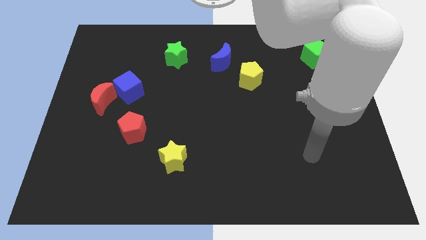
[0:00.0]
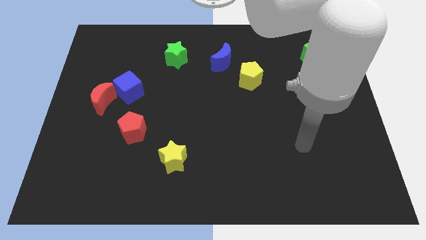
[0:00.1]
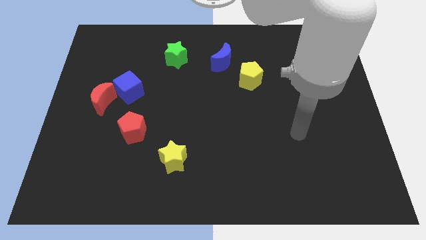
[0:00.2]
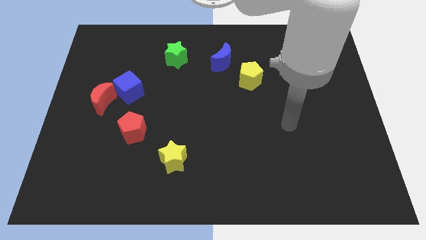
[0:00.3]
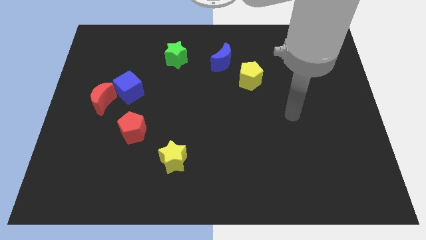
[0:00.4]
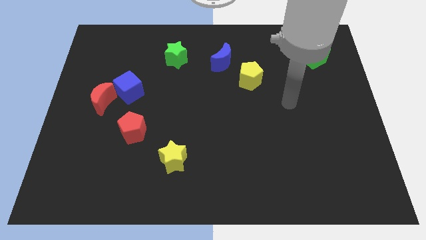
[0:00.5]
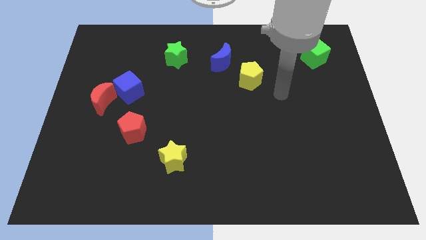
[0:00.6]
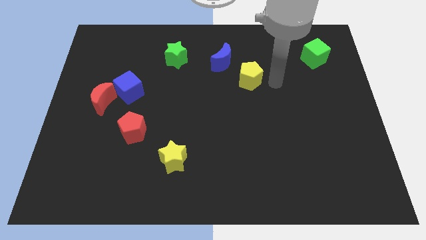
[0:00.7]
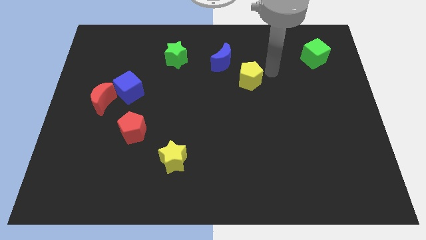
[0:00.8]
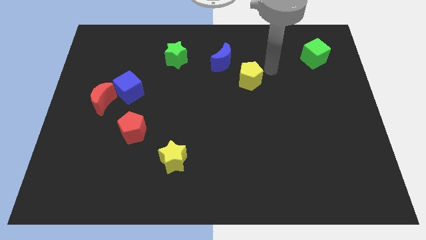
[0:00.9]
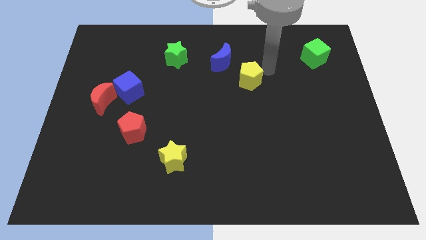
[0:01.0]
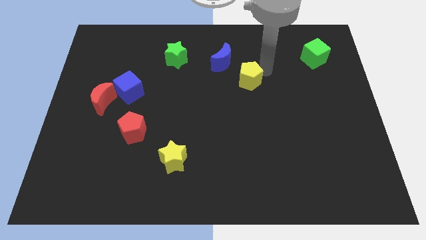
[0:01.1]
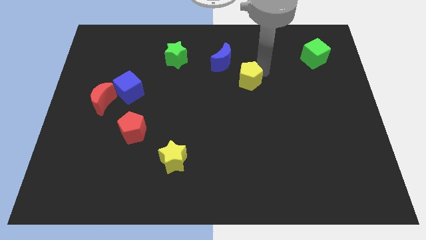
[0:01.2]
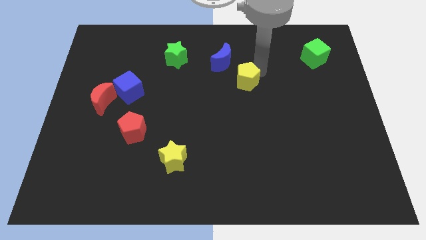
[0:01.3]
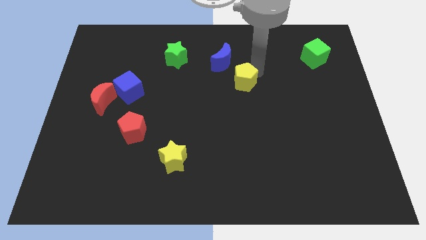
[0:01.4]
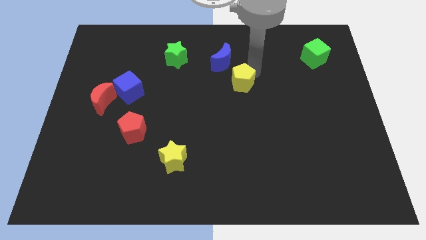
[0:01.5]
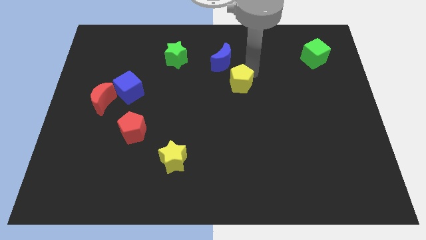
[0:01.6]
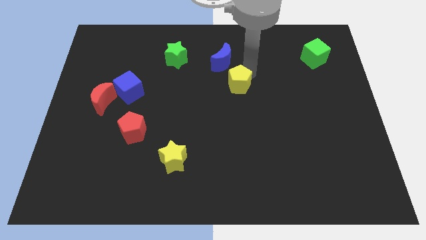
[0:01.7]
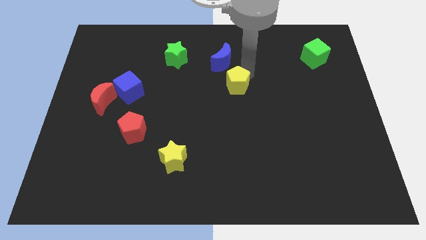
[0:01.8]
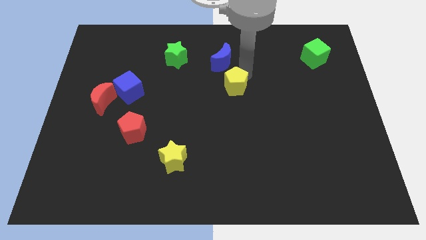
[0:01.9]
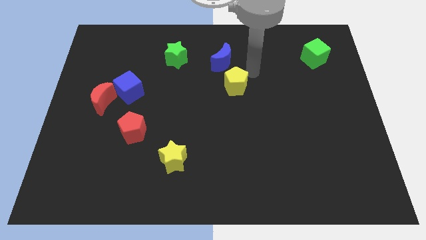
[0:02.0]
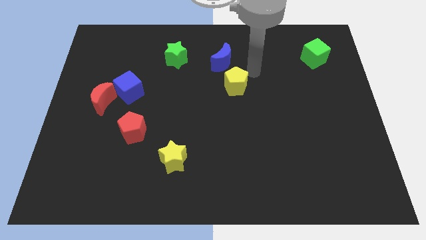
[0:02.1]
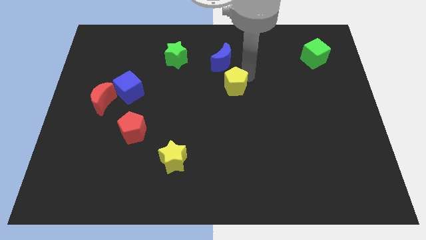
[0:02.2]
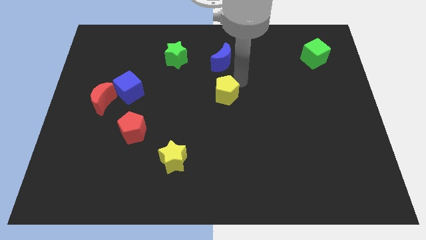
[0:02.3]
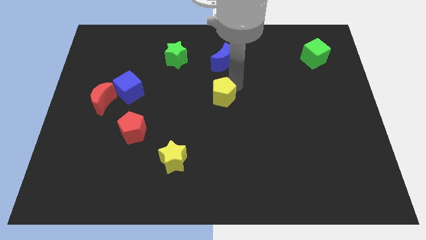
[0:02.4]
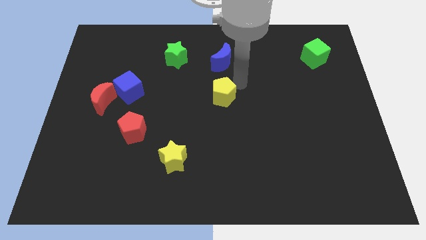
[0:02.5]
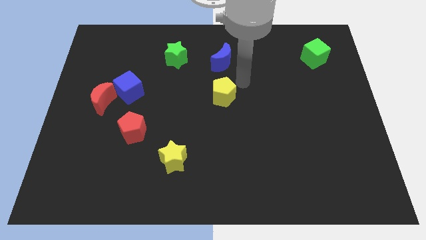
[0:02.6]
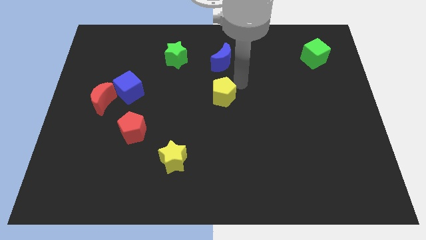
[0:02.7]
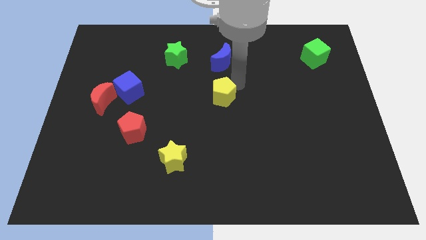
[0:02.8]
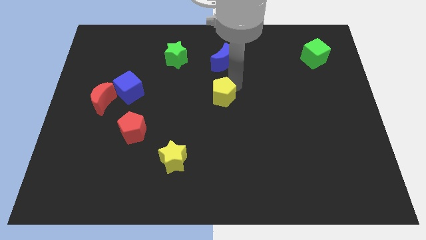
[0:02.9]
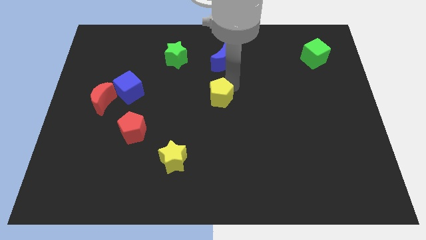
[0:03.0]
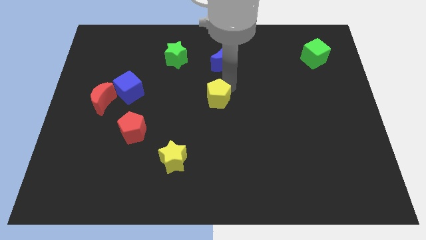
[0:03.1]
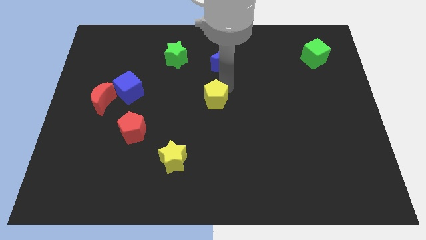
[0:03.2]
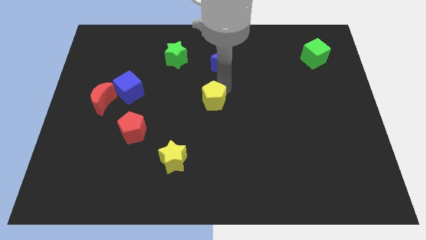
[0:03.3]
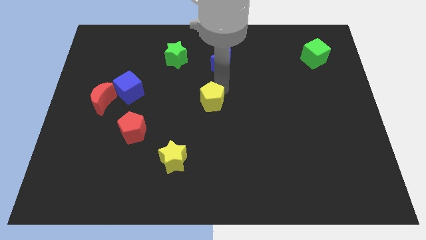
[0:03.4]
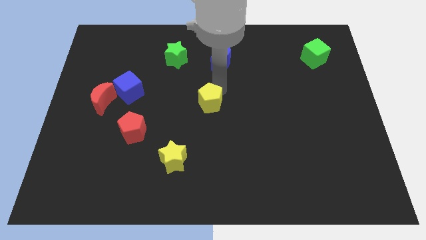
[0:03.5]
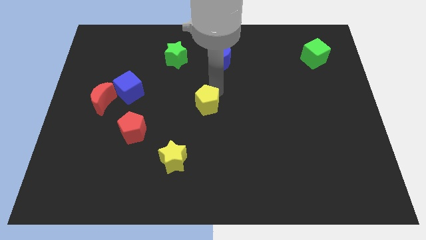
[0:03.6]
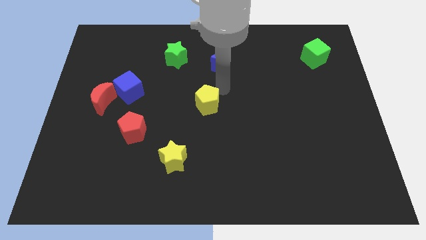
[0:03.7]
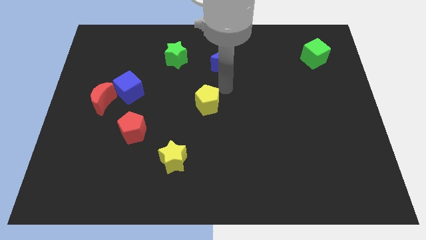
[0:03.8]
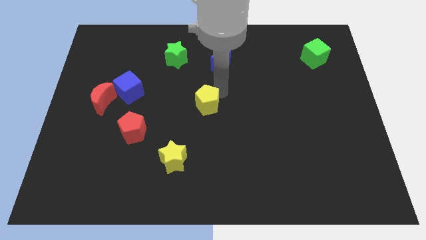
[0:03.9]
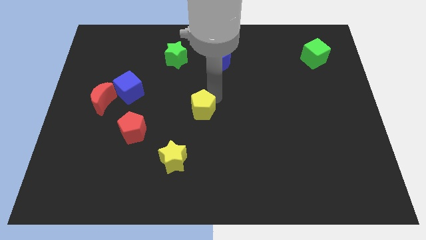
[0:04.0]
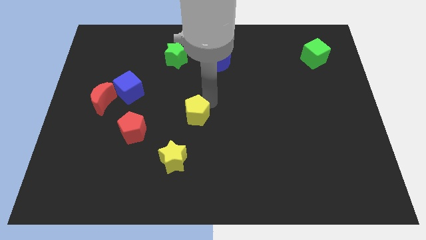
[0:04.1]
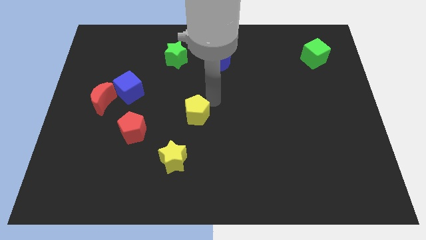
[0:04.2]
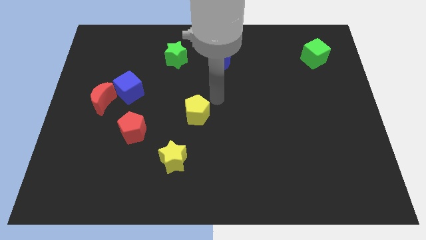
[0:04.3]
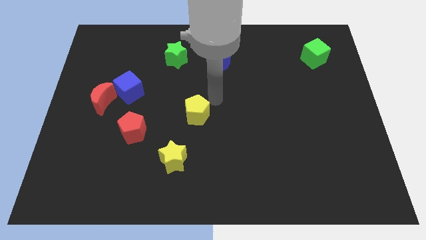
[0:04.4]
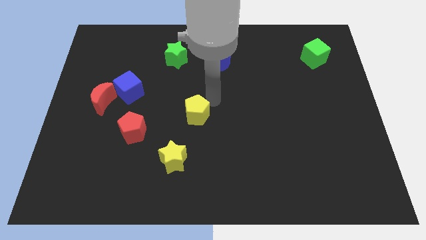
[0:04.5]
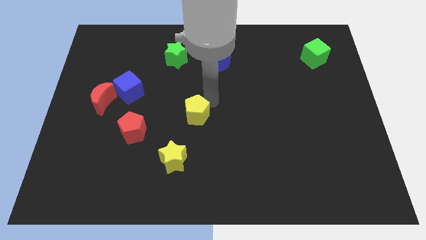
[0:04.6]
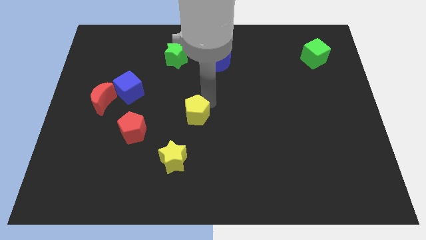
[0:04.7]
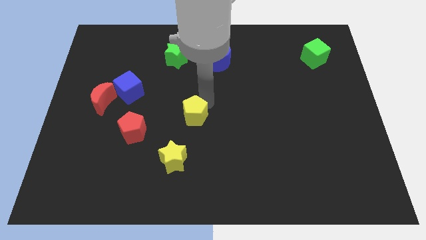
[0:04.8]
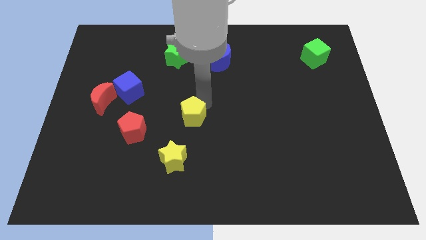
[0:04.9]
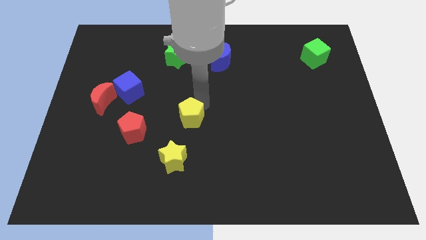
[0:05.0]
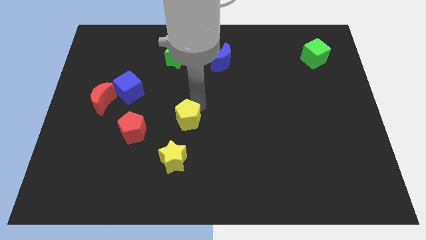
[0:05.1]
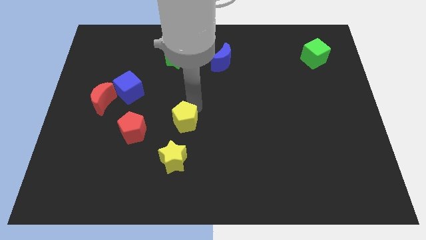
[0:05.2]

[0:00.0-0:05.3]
push the yellow pentagon diagonally down and to the left

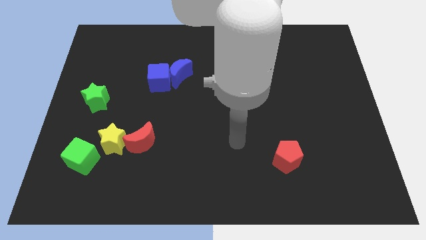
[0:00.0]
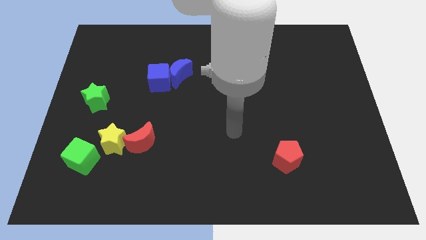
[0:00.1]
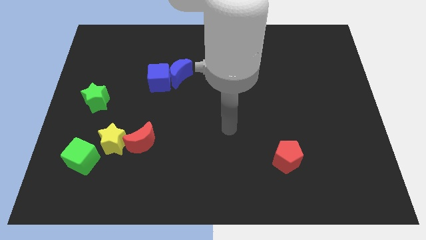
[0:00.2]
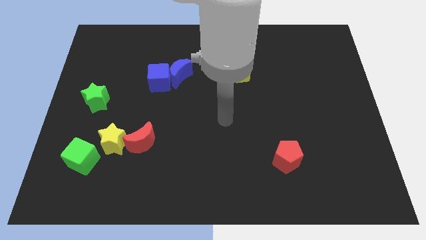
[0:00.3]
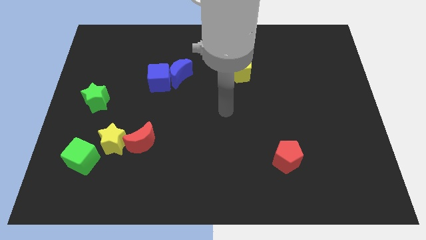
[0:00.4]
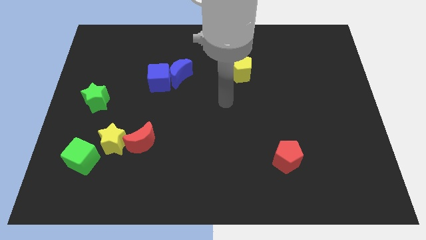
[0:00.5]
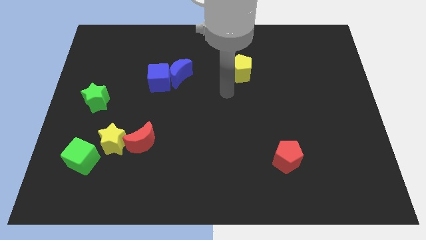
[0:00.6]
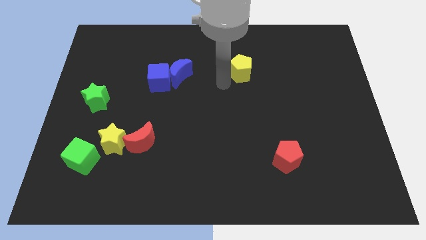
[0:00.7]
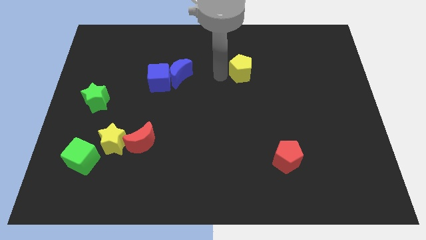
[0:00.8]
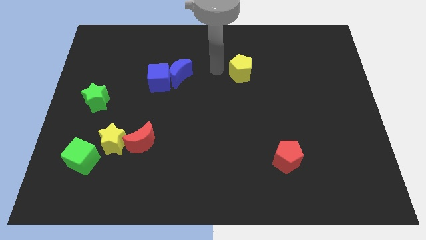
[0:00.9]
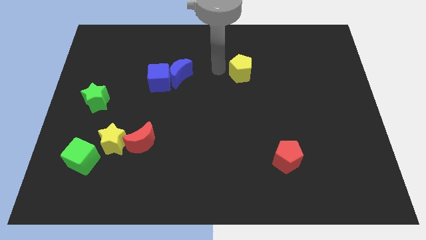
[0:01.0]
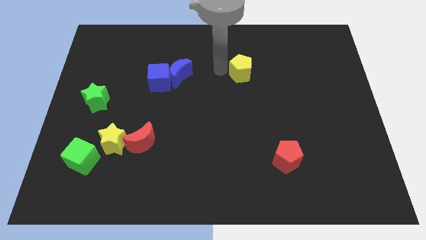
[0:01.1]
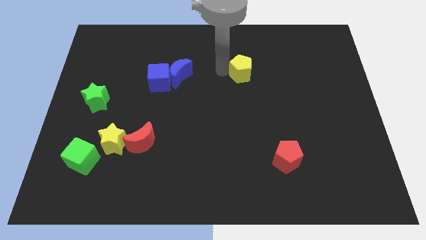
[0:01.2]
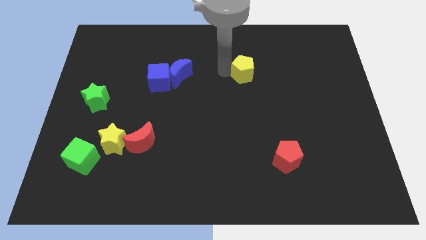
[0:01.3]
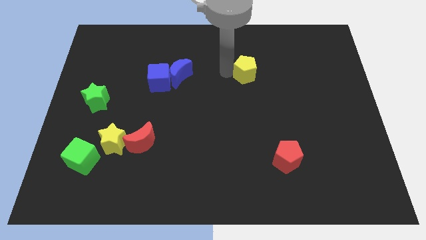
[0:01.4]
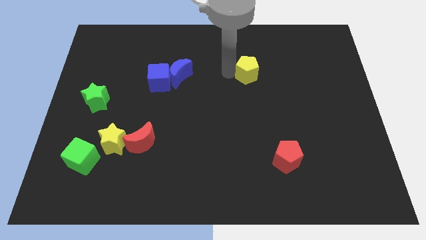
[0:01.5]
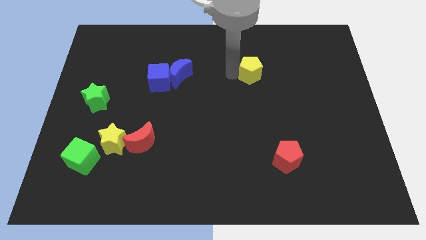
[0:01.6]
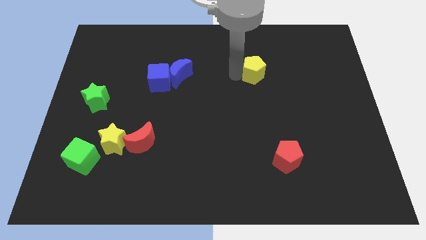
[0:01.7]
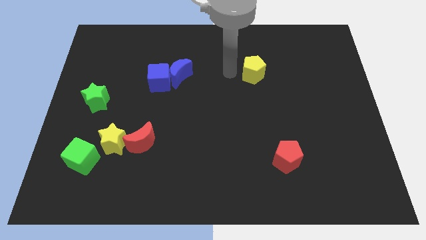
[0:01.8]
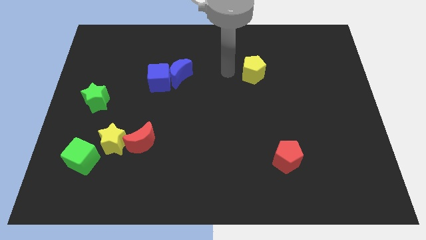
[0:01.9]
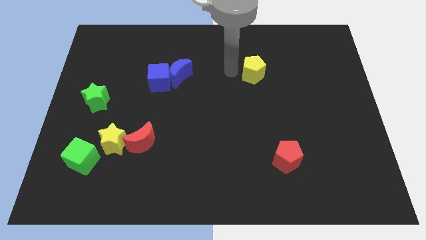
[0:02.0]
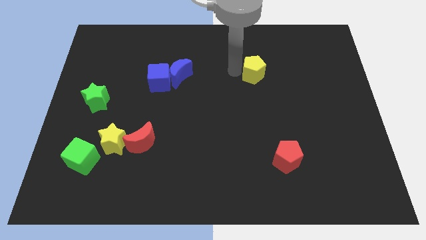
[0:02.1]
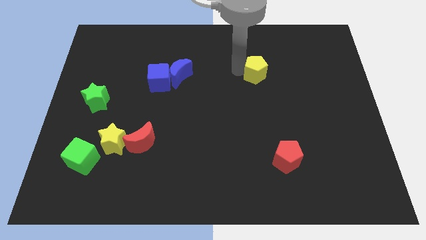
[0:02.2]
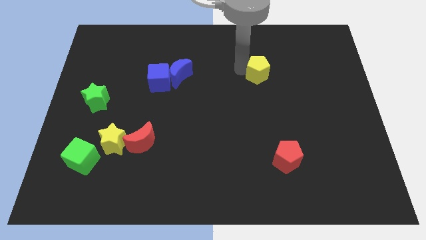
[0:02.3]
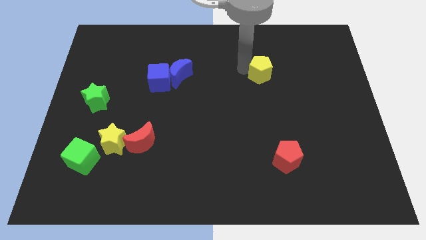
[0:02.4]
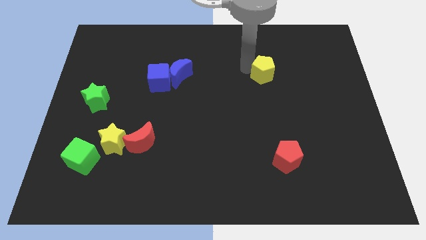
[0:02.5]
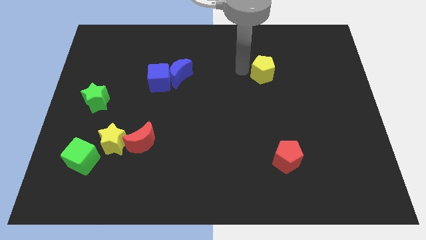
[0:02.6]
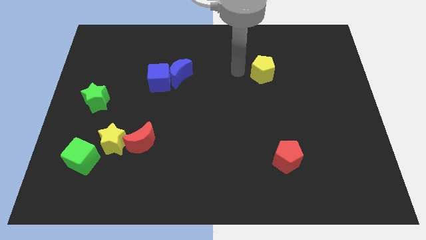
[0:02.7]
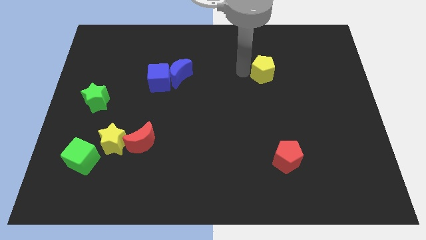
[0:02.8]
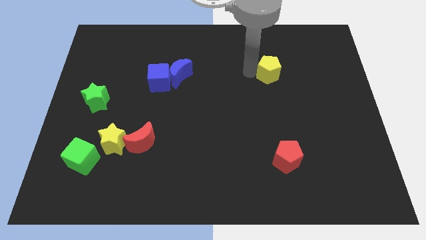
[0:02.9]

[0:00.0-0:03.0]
push the yellow pentagon somewhat right
